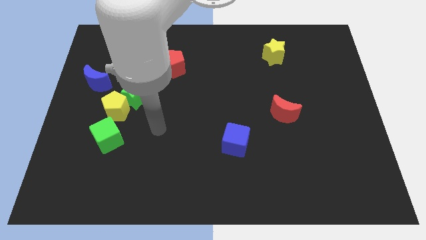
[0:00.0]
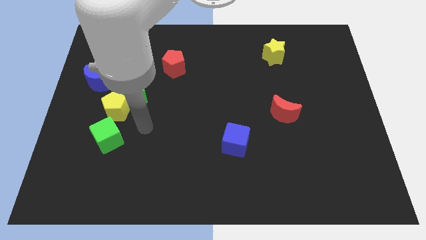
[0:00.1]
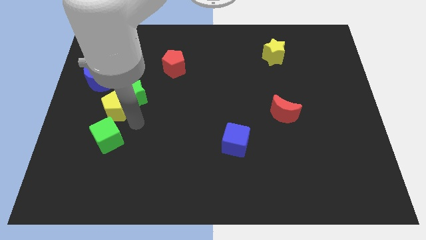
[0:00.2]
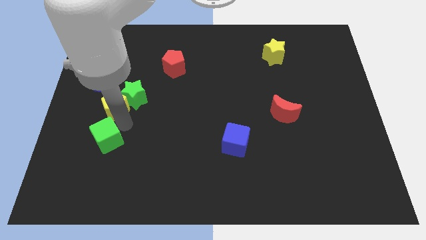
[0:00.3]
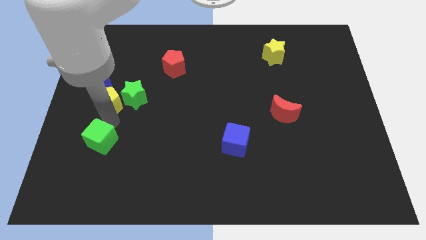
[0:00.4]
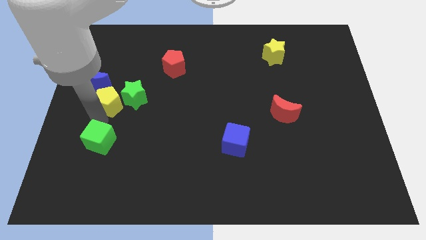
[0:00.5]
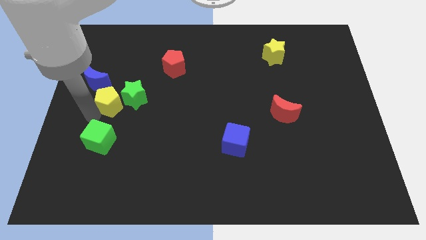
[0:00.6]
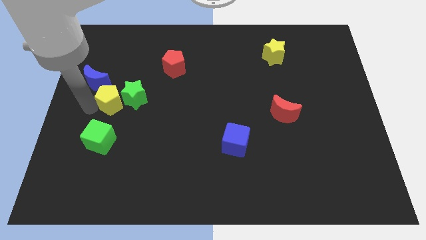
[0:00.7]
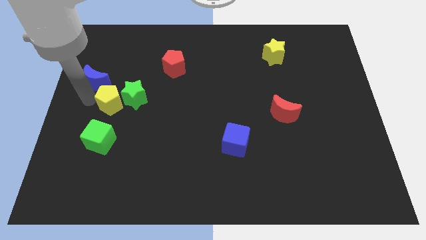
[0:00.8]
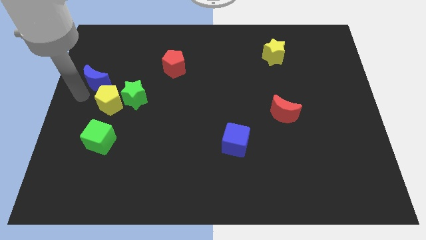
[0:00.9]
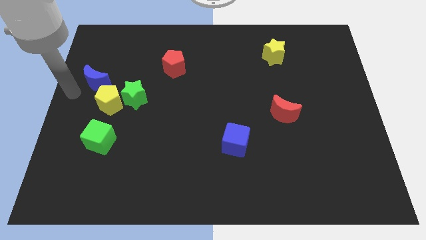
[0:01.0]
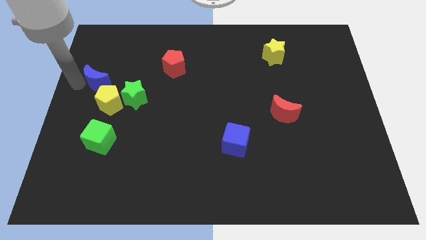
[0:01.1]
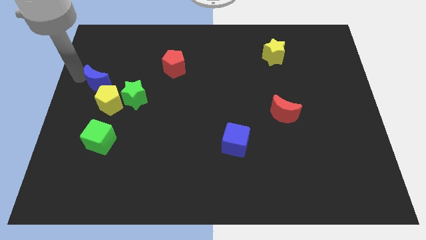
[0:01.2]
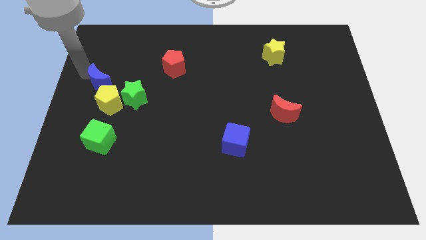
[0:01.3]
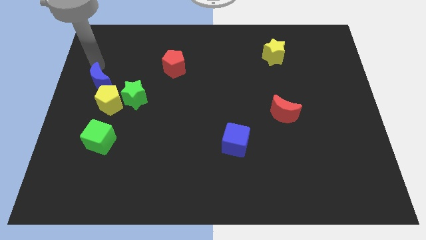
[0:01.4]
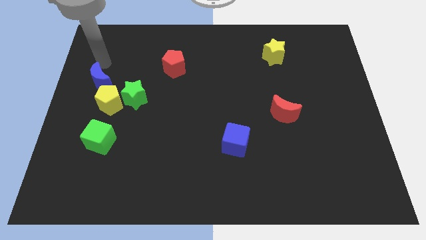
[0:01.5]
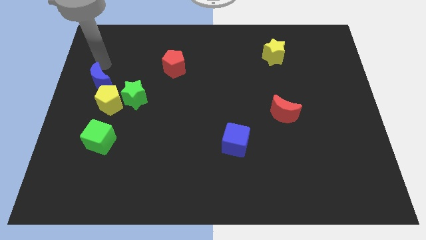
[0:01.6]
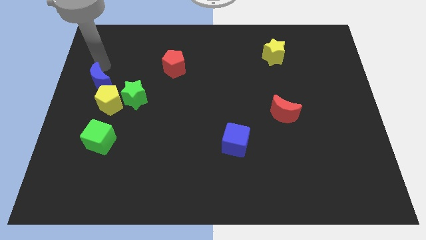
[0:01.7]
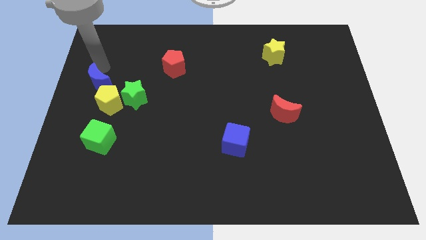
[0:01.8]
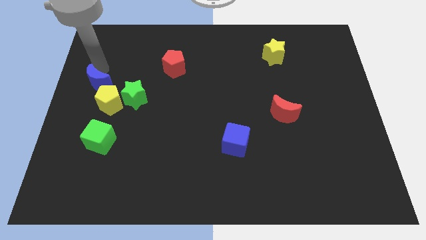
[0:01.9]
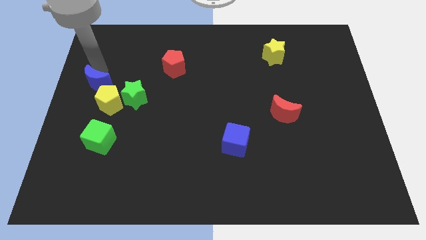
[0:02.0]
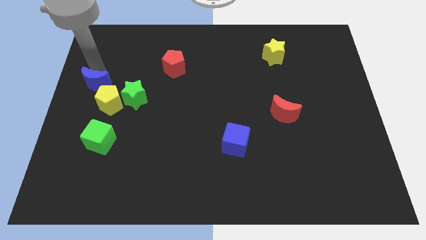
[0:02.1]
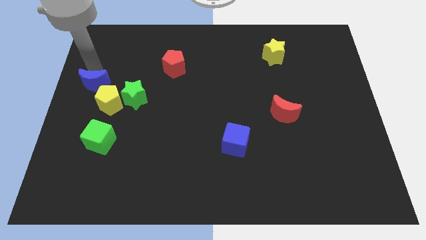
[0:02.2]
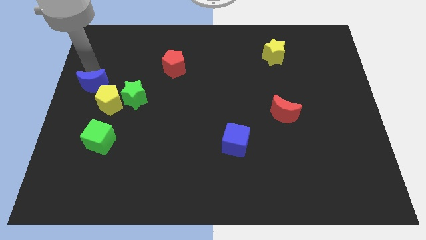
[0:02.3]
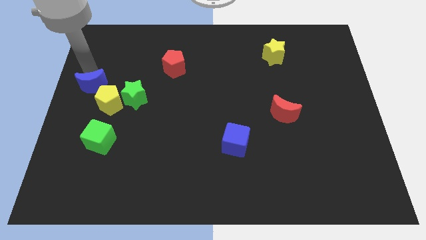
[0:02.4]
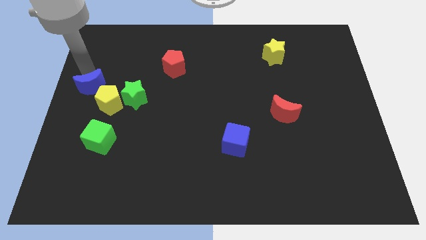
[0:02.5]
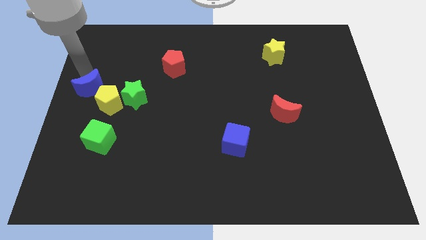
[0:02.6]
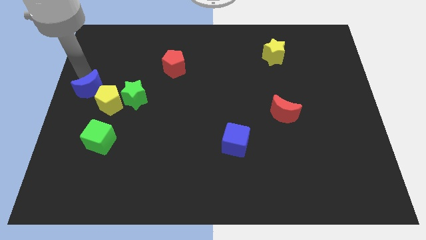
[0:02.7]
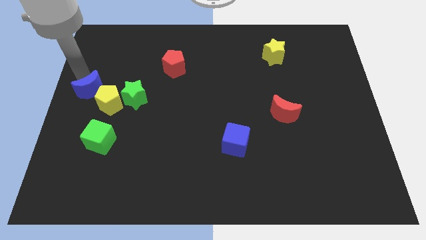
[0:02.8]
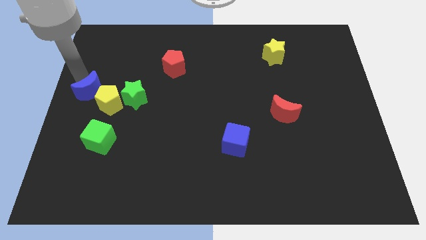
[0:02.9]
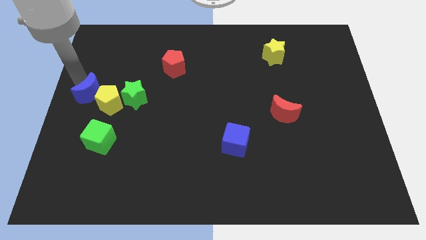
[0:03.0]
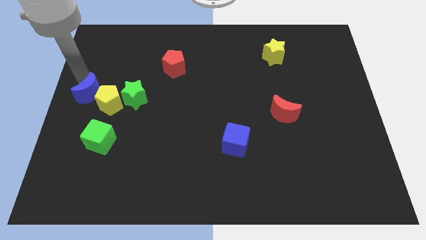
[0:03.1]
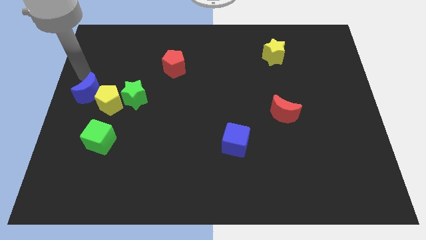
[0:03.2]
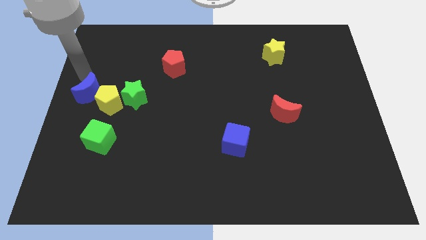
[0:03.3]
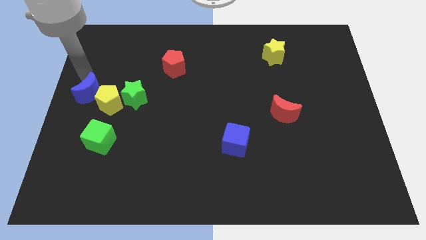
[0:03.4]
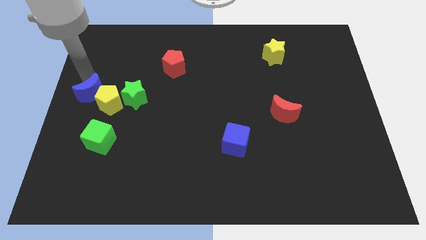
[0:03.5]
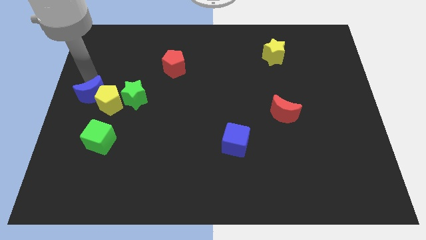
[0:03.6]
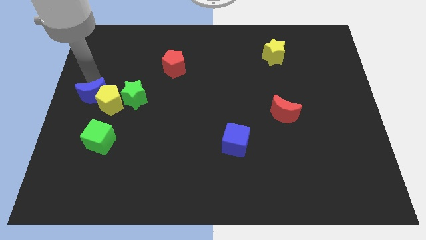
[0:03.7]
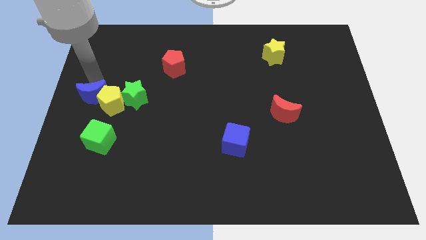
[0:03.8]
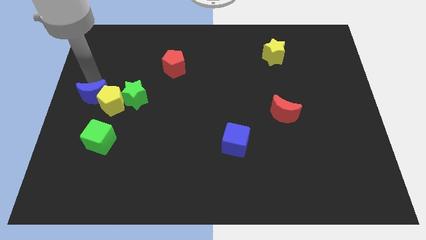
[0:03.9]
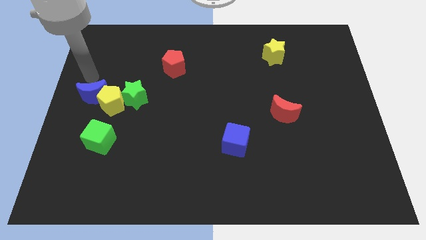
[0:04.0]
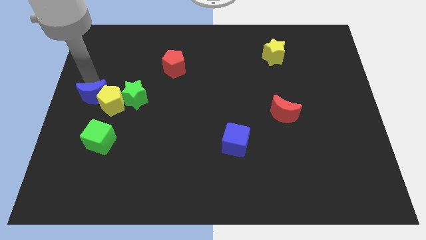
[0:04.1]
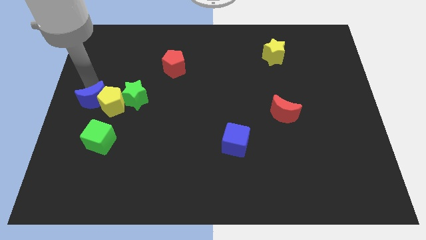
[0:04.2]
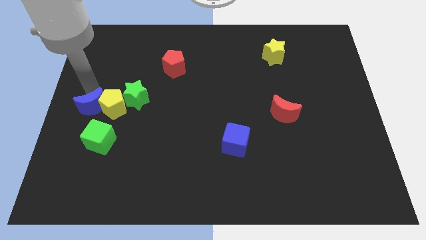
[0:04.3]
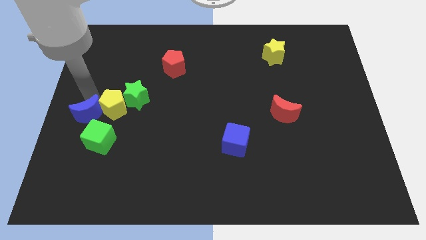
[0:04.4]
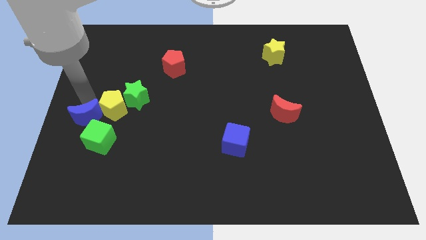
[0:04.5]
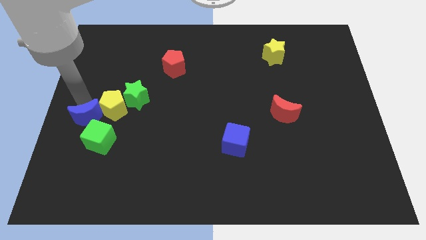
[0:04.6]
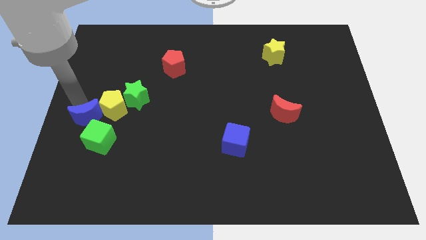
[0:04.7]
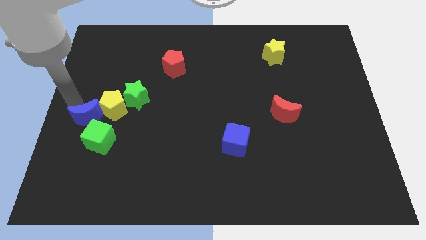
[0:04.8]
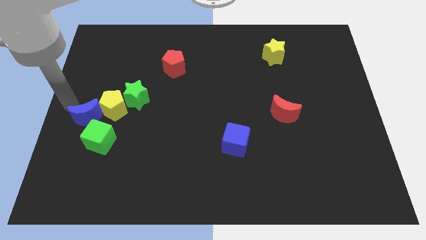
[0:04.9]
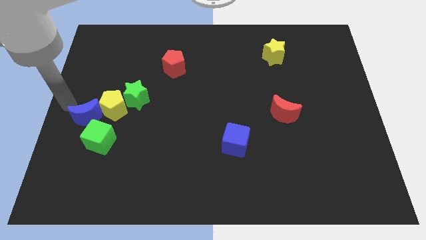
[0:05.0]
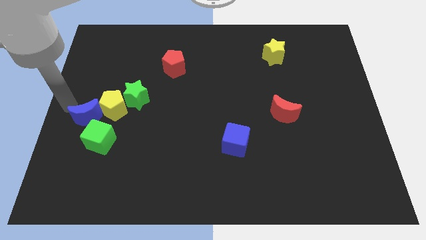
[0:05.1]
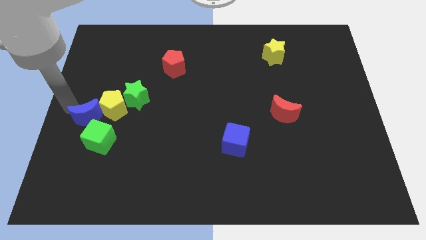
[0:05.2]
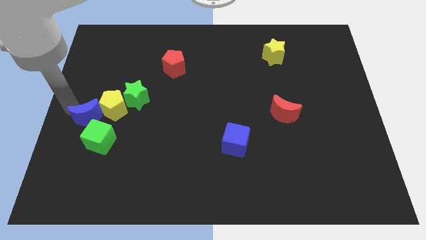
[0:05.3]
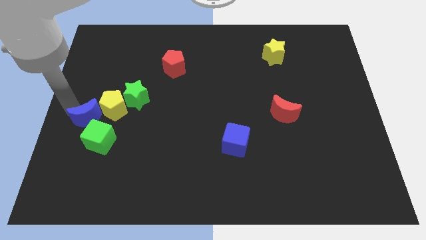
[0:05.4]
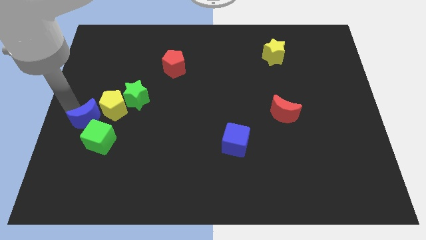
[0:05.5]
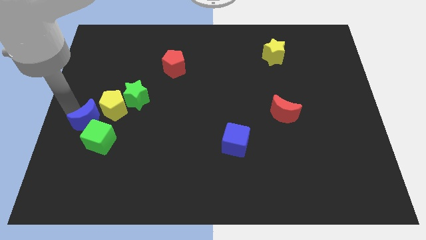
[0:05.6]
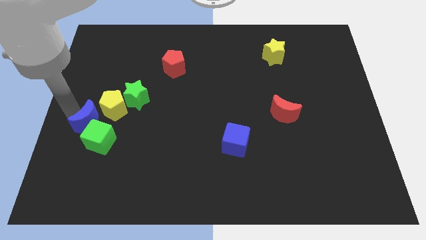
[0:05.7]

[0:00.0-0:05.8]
slide the blue moon towards the green cube

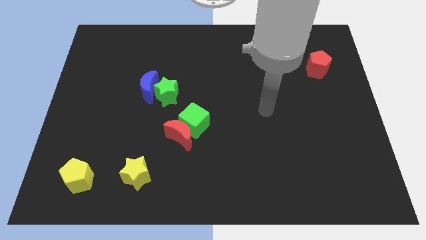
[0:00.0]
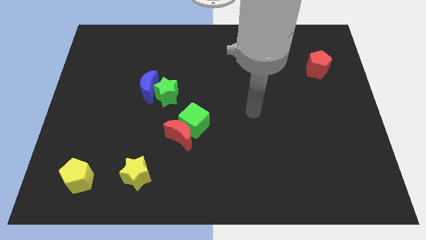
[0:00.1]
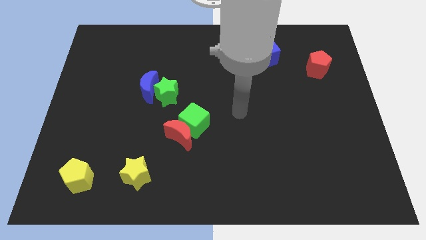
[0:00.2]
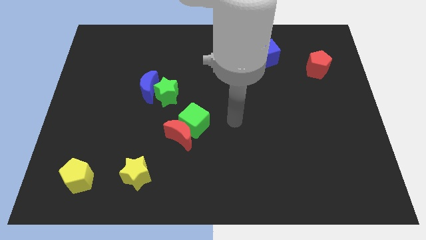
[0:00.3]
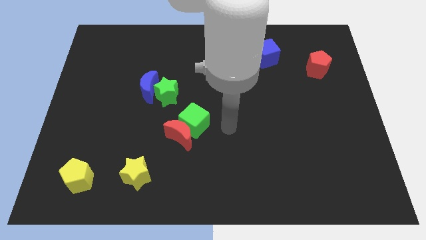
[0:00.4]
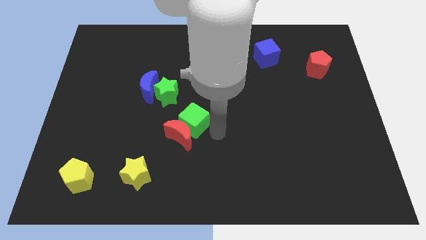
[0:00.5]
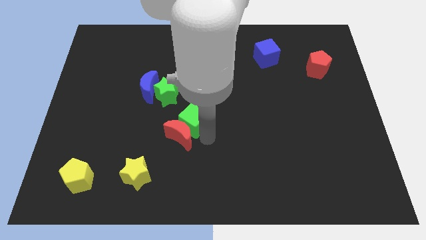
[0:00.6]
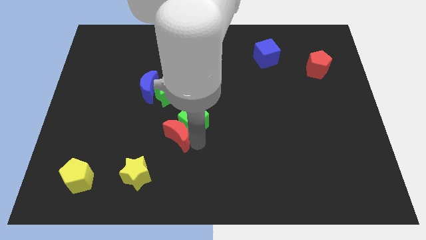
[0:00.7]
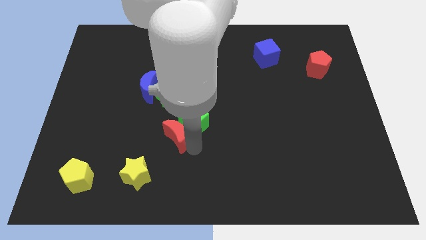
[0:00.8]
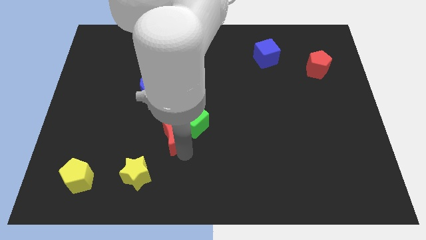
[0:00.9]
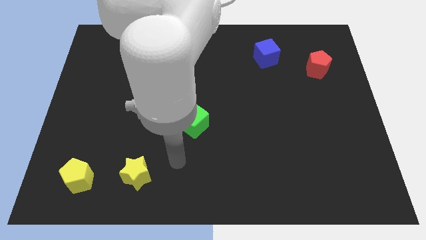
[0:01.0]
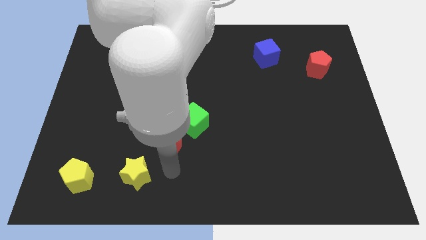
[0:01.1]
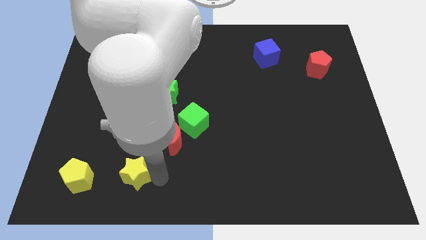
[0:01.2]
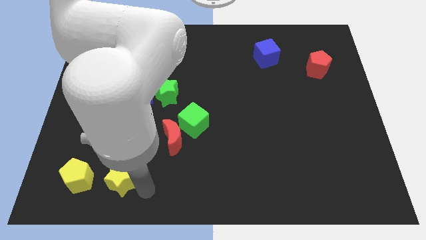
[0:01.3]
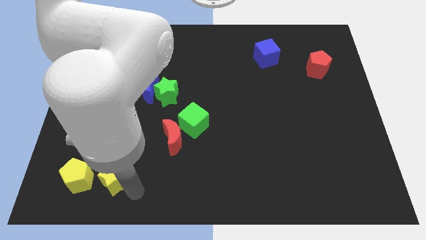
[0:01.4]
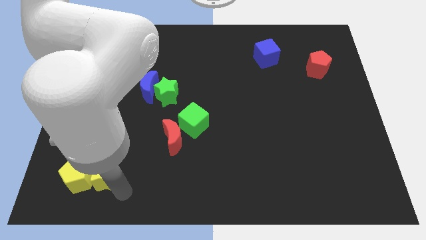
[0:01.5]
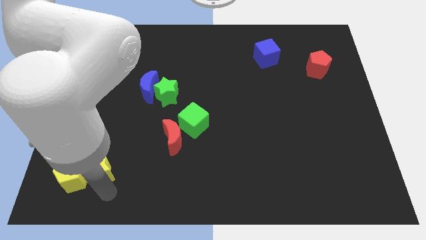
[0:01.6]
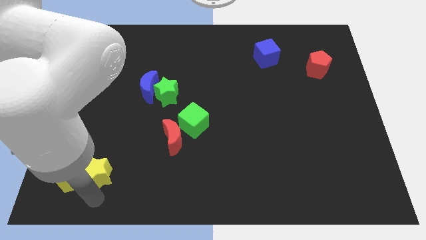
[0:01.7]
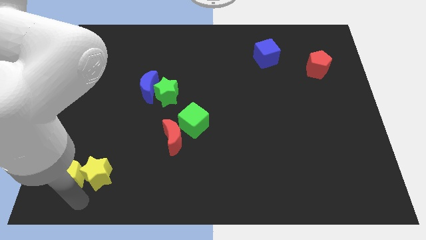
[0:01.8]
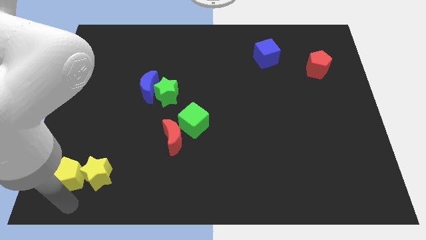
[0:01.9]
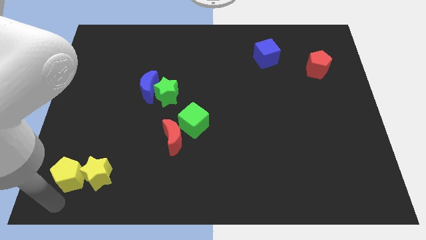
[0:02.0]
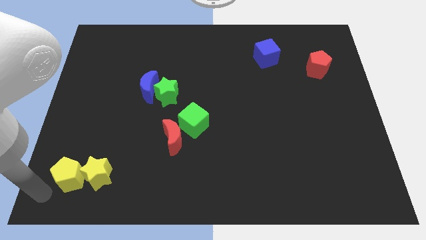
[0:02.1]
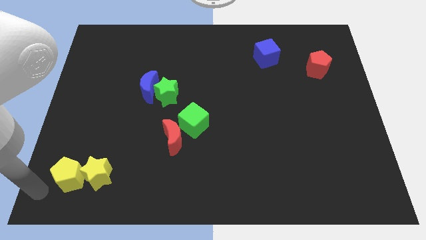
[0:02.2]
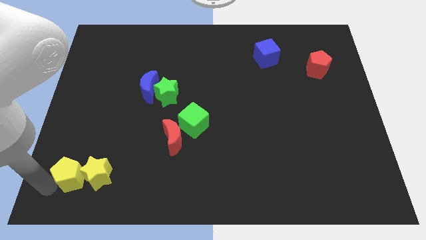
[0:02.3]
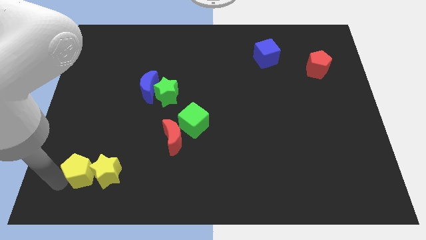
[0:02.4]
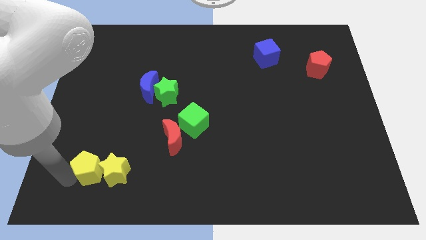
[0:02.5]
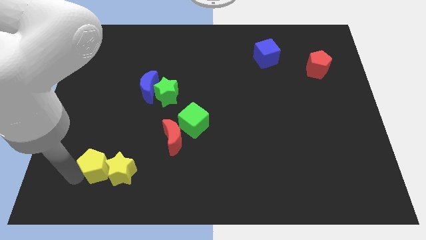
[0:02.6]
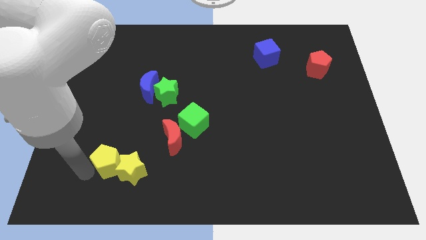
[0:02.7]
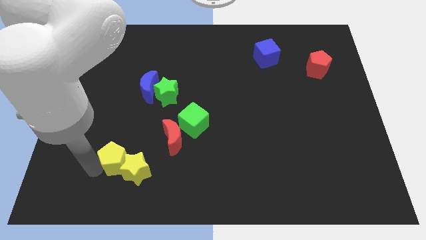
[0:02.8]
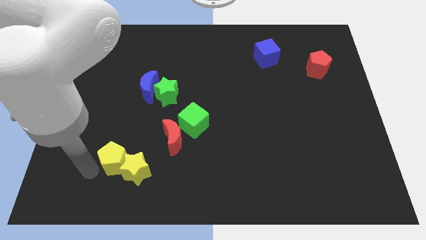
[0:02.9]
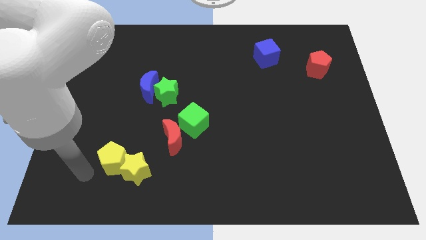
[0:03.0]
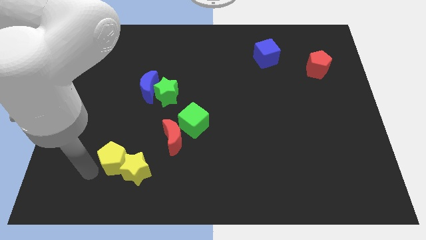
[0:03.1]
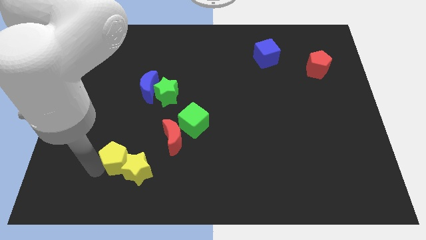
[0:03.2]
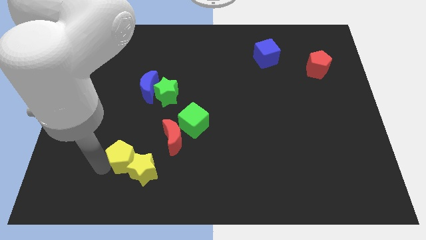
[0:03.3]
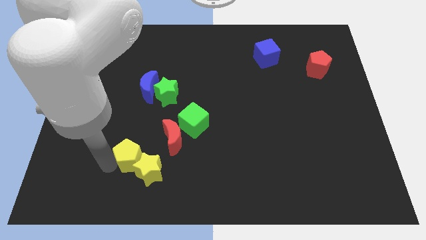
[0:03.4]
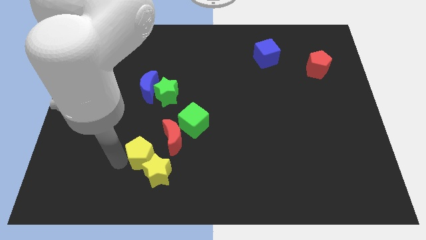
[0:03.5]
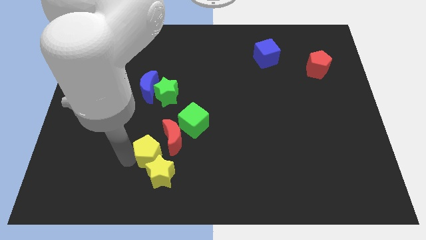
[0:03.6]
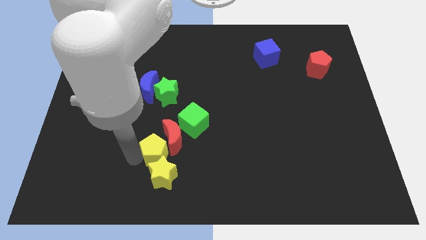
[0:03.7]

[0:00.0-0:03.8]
slide the yellow pentagon towards the red moon
